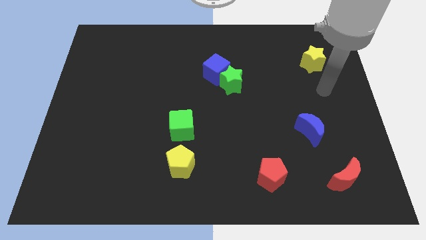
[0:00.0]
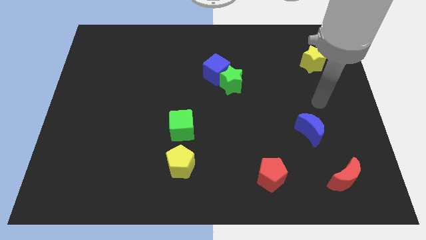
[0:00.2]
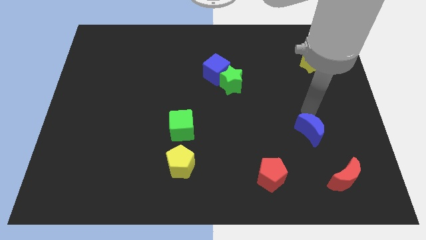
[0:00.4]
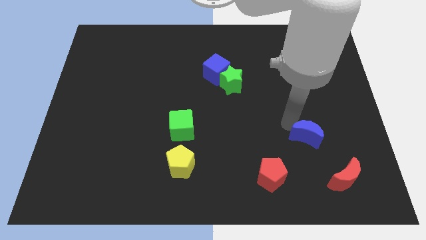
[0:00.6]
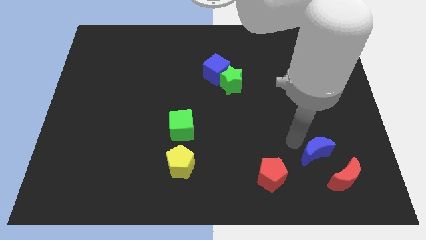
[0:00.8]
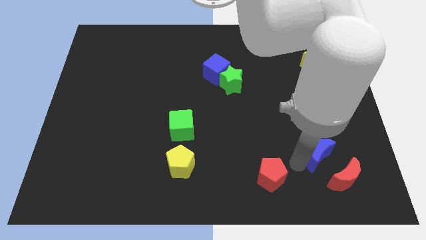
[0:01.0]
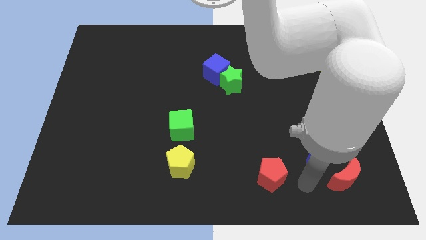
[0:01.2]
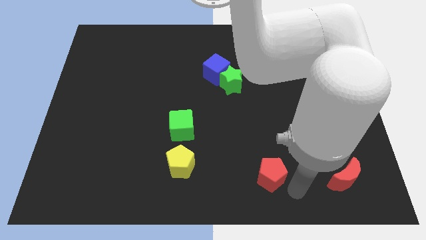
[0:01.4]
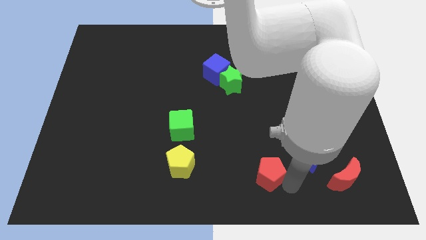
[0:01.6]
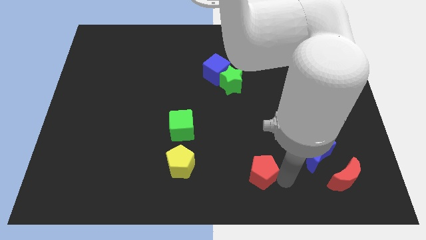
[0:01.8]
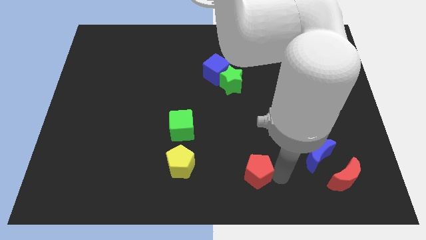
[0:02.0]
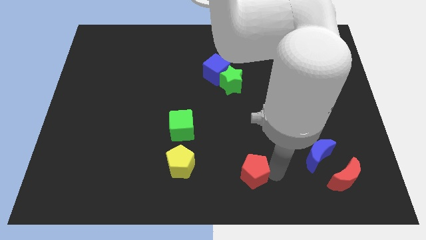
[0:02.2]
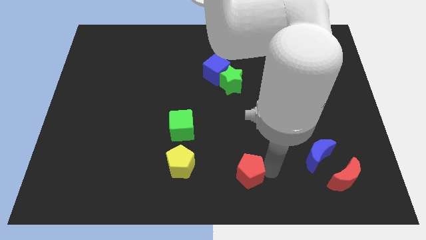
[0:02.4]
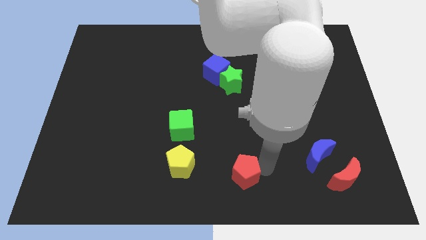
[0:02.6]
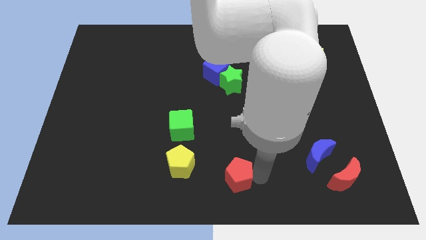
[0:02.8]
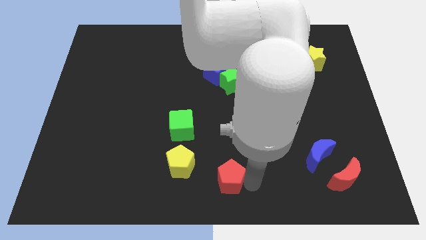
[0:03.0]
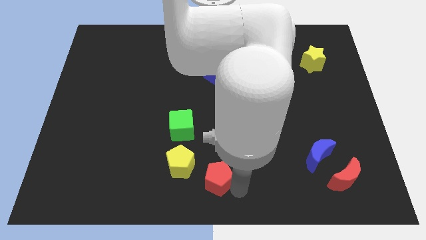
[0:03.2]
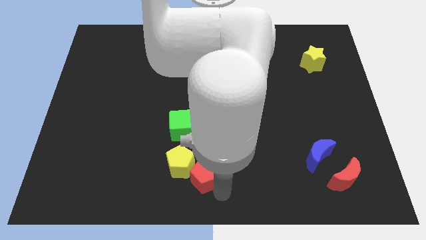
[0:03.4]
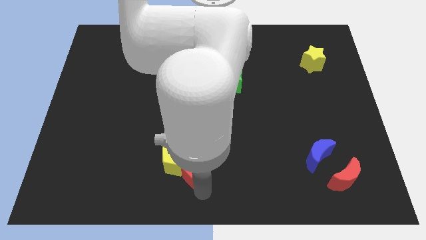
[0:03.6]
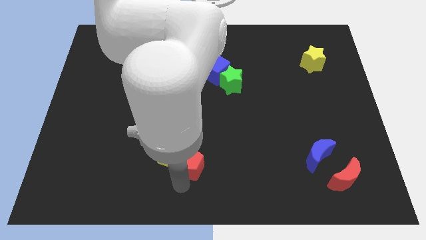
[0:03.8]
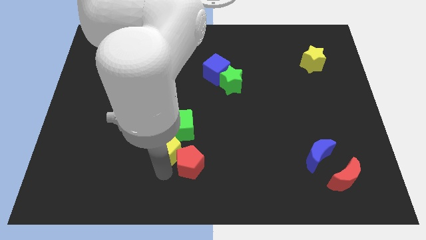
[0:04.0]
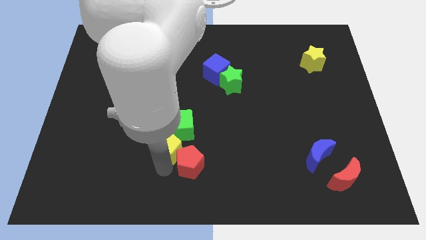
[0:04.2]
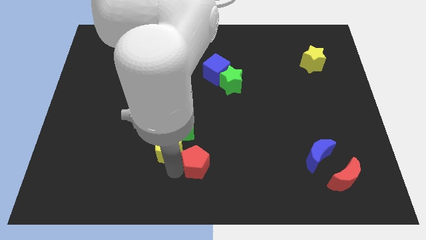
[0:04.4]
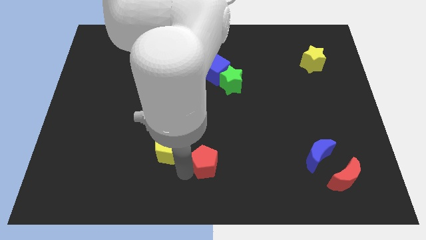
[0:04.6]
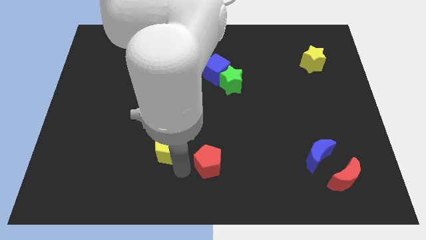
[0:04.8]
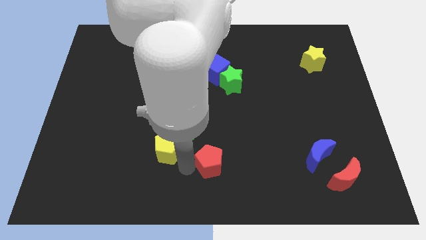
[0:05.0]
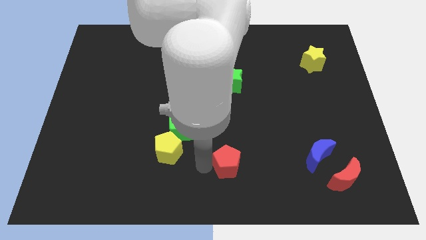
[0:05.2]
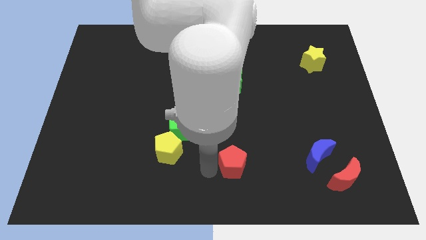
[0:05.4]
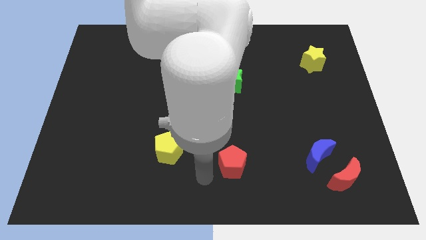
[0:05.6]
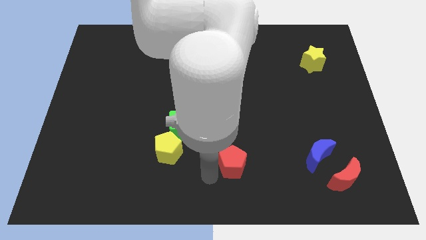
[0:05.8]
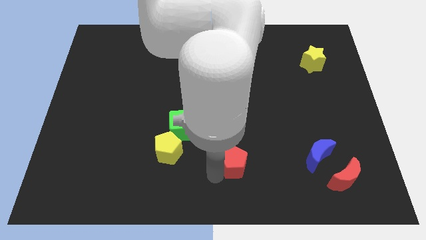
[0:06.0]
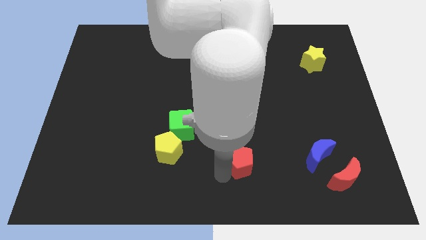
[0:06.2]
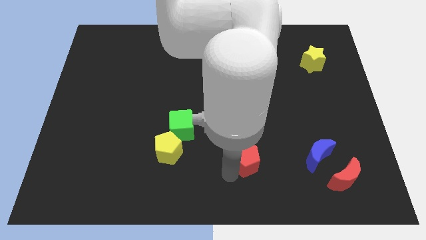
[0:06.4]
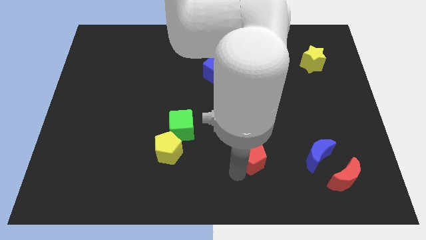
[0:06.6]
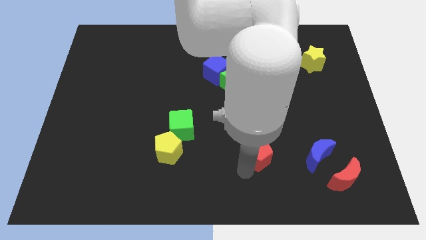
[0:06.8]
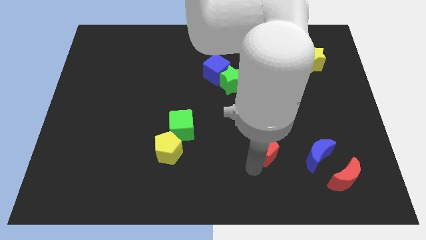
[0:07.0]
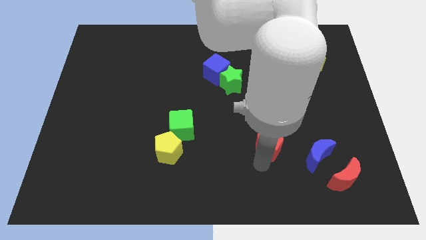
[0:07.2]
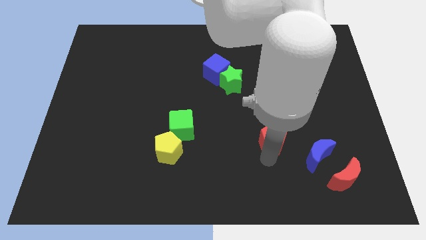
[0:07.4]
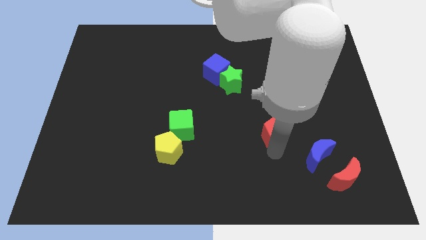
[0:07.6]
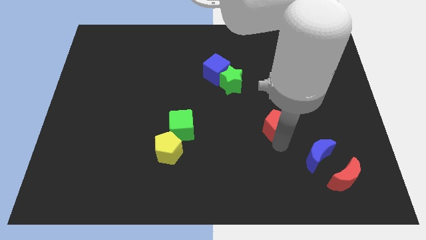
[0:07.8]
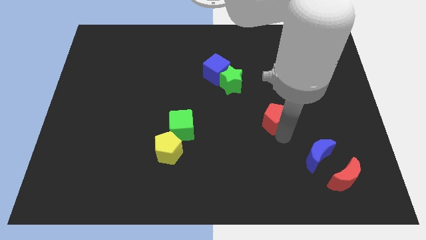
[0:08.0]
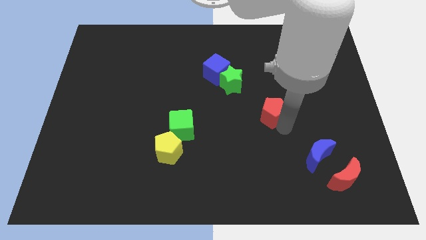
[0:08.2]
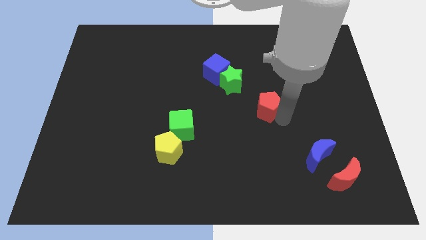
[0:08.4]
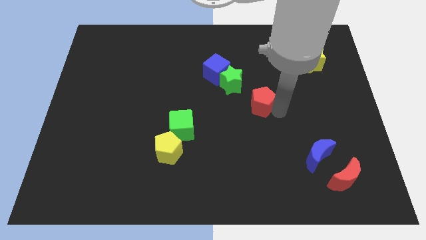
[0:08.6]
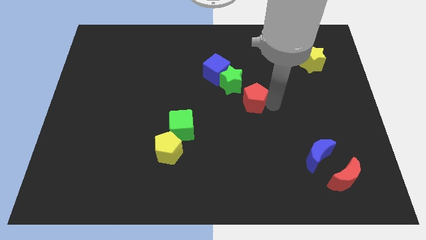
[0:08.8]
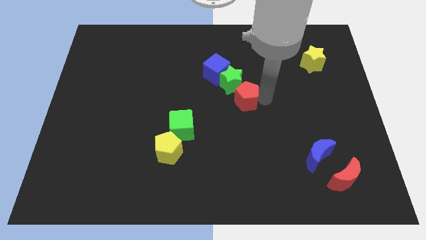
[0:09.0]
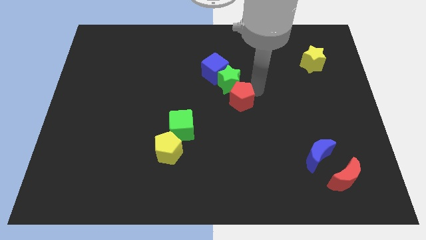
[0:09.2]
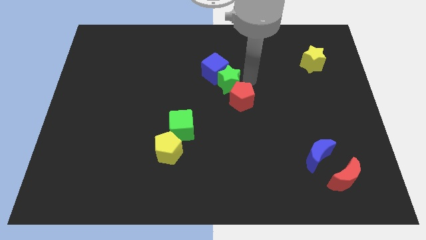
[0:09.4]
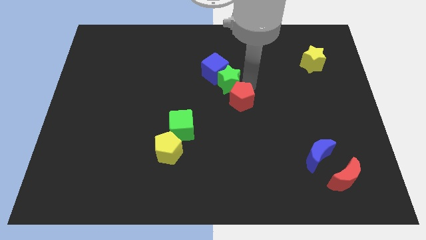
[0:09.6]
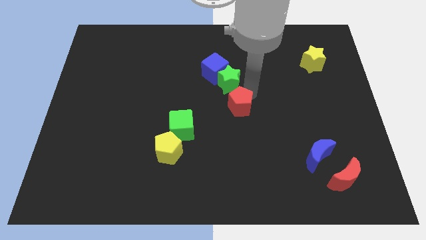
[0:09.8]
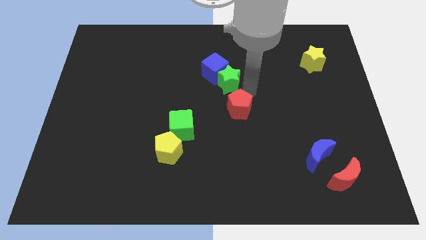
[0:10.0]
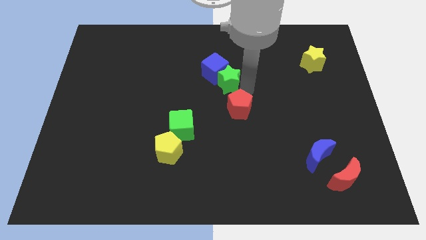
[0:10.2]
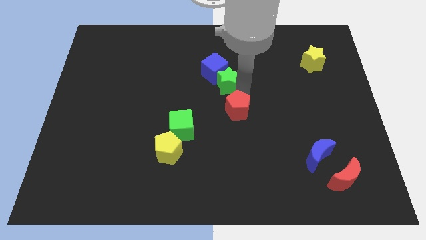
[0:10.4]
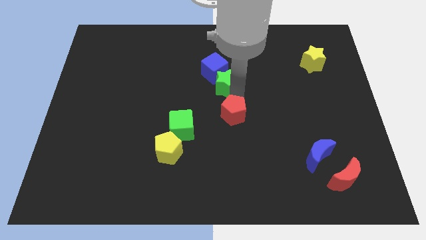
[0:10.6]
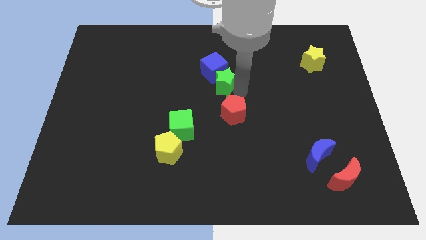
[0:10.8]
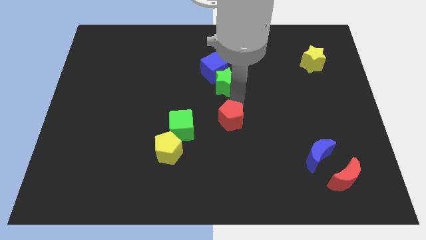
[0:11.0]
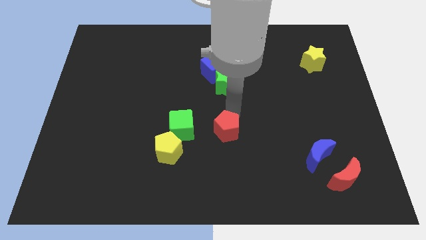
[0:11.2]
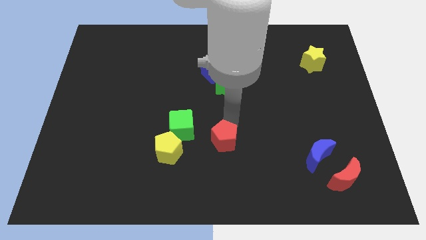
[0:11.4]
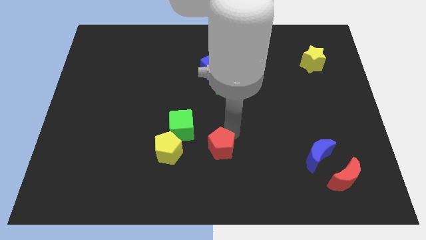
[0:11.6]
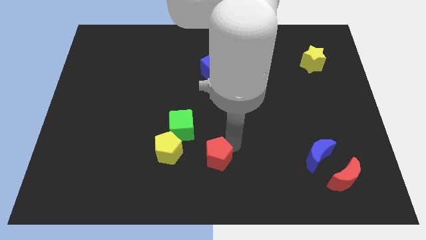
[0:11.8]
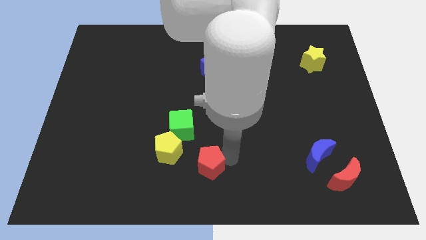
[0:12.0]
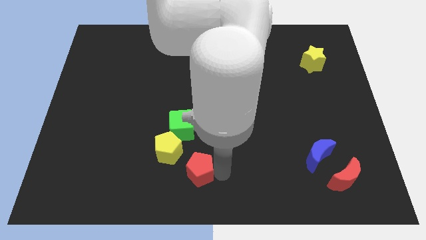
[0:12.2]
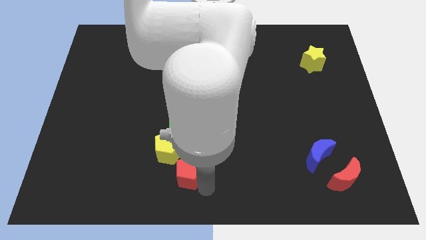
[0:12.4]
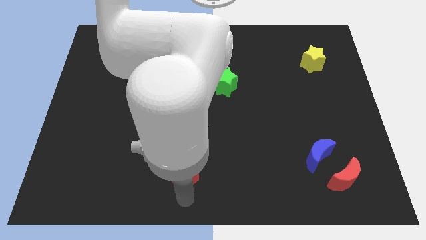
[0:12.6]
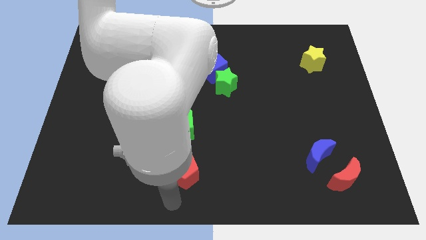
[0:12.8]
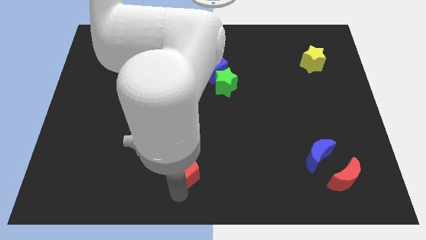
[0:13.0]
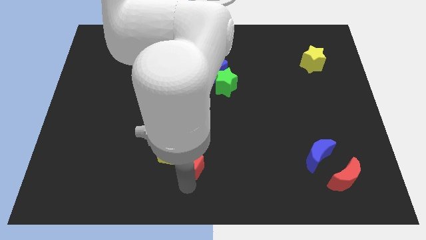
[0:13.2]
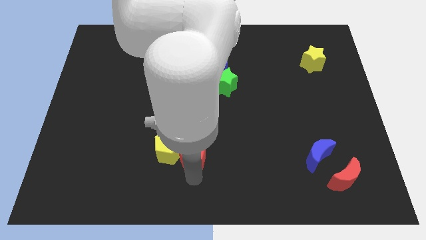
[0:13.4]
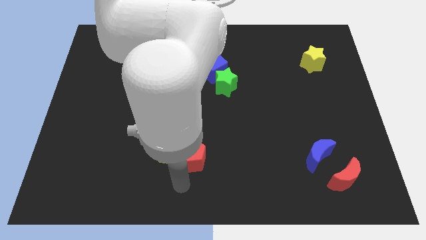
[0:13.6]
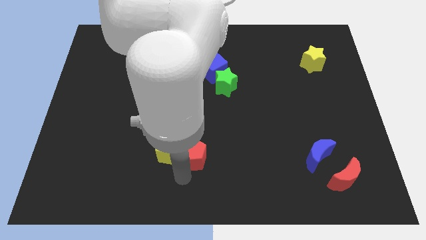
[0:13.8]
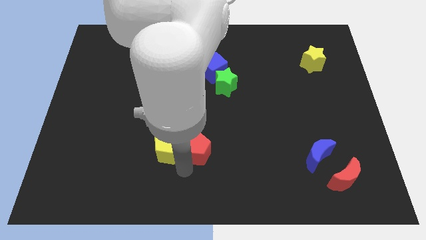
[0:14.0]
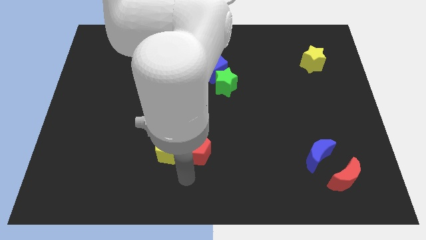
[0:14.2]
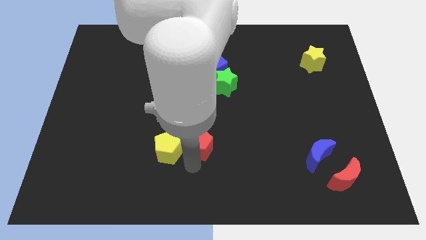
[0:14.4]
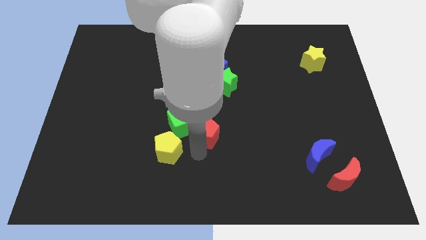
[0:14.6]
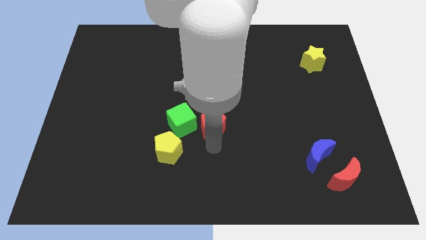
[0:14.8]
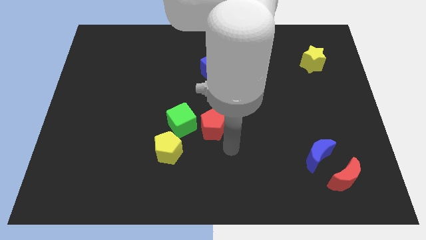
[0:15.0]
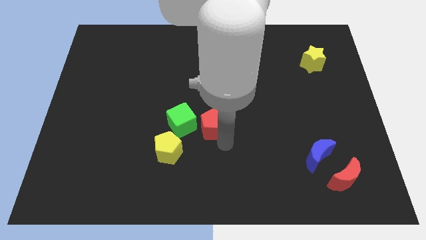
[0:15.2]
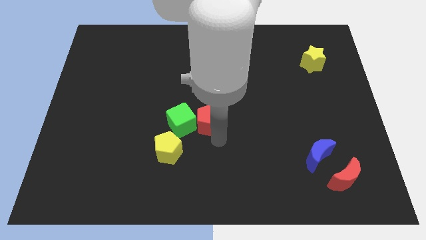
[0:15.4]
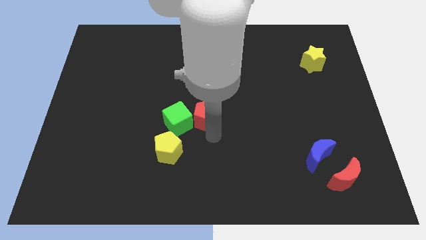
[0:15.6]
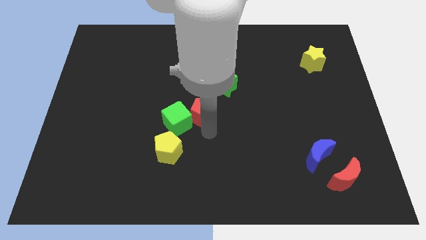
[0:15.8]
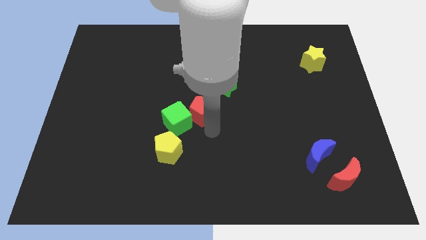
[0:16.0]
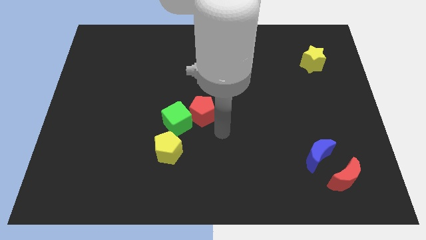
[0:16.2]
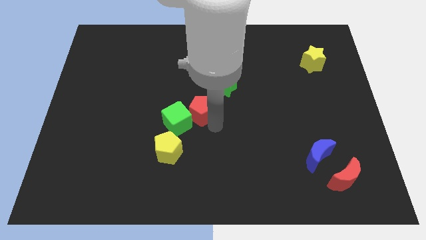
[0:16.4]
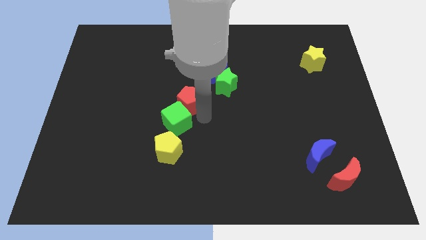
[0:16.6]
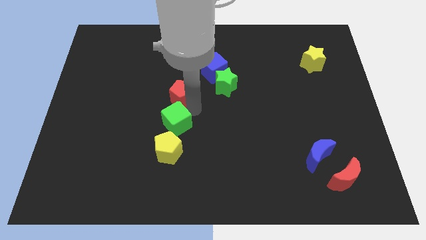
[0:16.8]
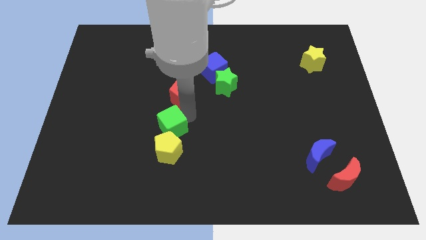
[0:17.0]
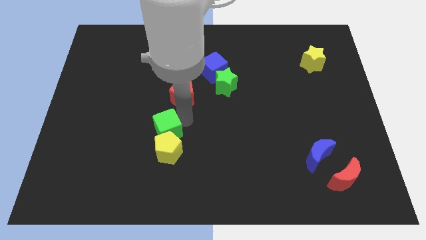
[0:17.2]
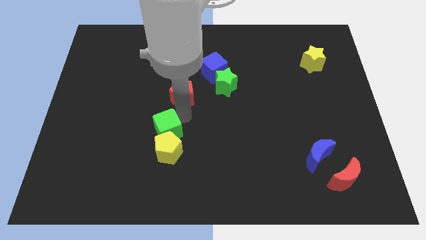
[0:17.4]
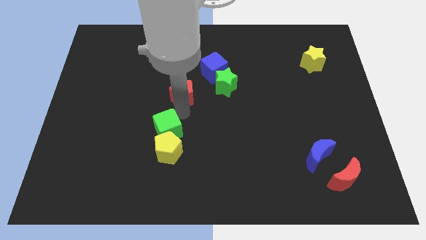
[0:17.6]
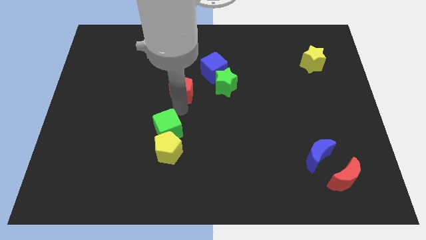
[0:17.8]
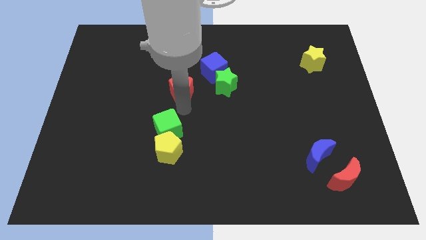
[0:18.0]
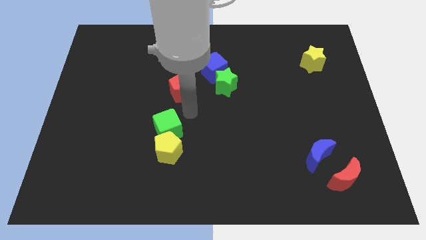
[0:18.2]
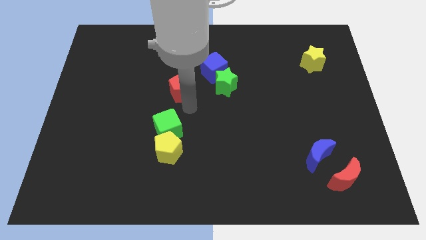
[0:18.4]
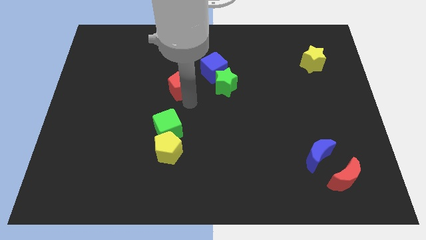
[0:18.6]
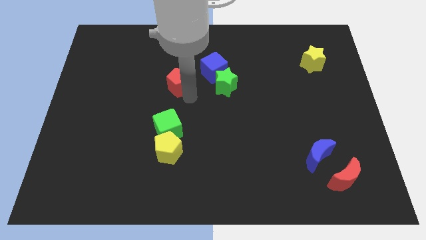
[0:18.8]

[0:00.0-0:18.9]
slide the red pentagon to the left of the blue cube
